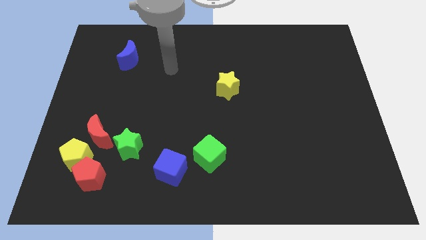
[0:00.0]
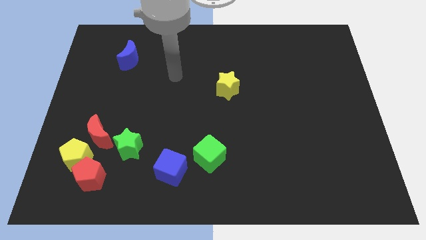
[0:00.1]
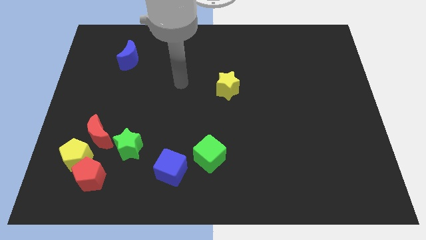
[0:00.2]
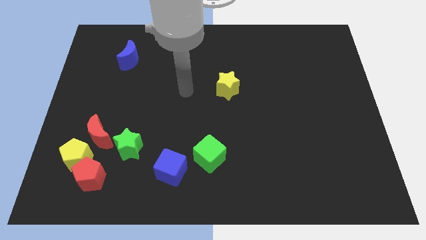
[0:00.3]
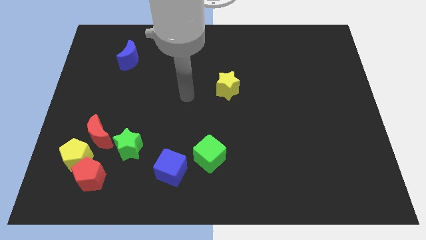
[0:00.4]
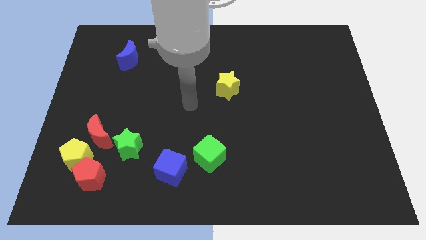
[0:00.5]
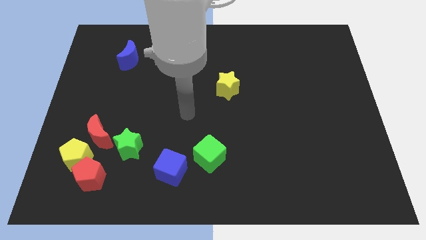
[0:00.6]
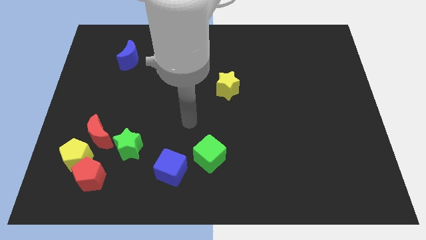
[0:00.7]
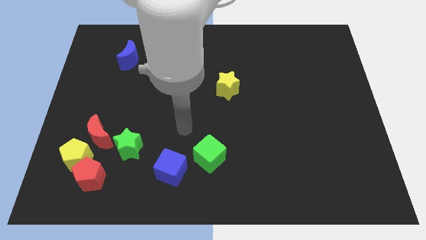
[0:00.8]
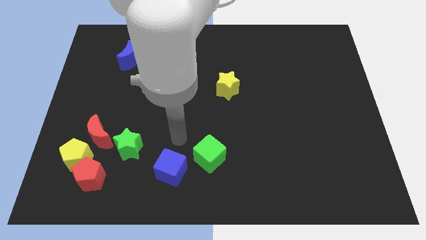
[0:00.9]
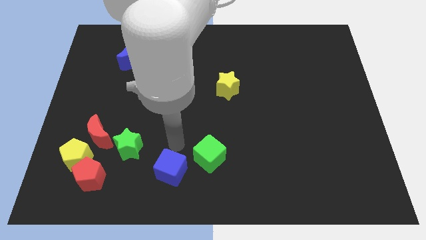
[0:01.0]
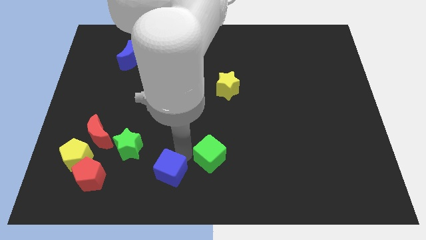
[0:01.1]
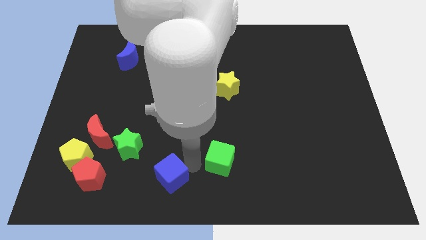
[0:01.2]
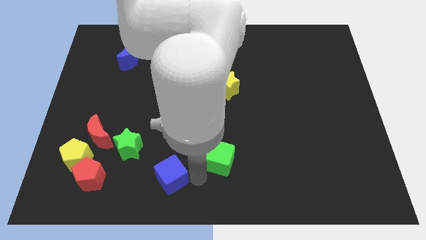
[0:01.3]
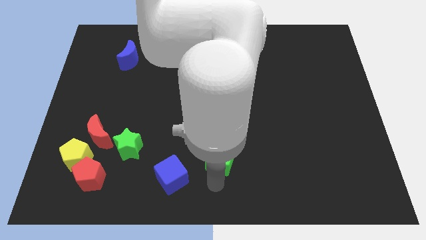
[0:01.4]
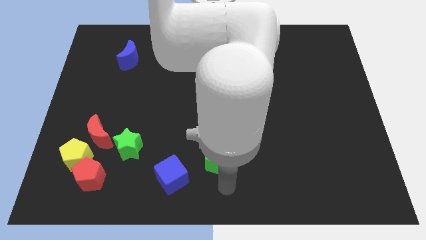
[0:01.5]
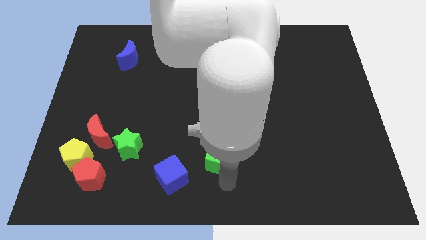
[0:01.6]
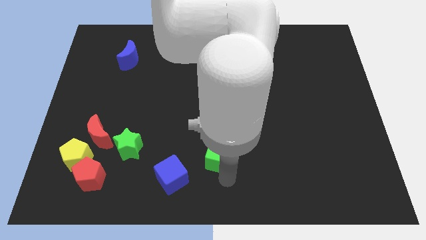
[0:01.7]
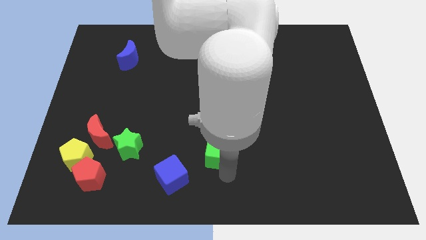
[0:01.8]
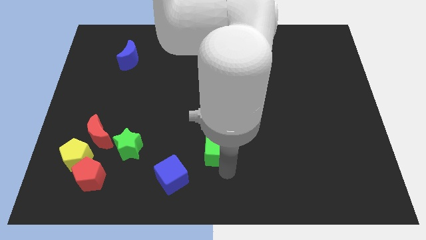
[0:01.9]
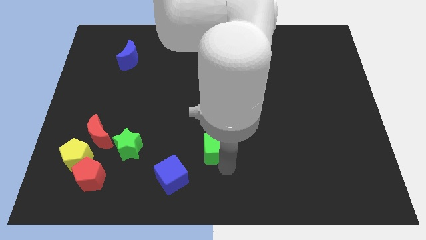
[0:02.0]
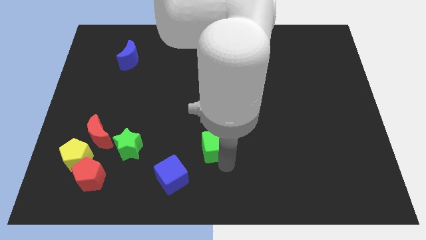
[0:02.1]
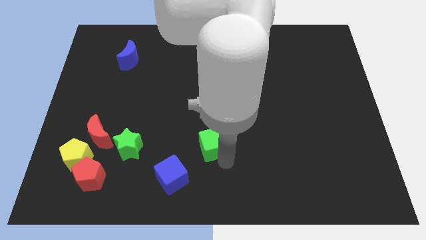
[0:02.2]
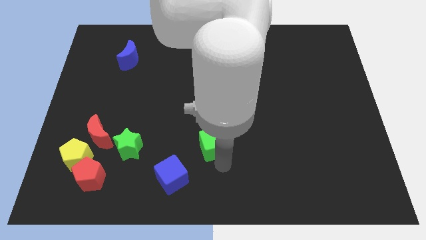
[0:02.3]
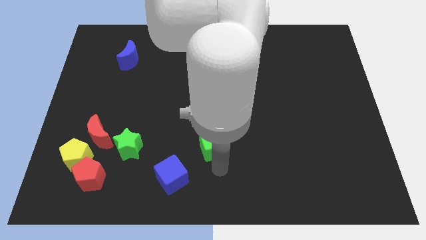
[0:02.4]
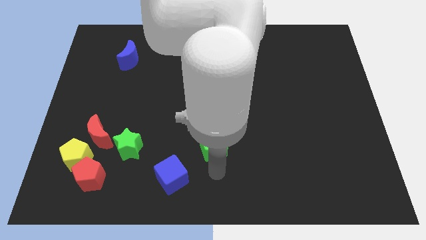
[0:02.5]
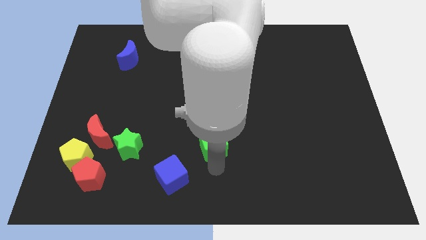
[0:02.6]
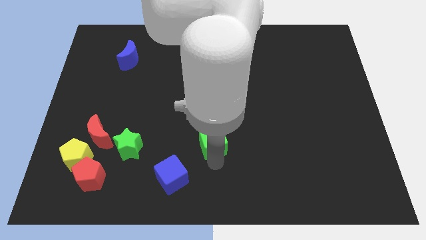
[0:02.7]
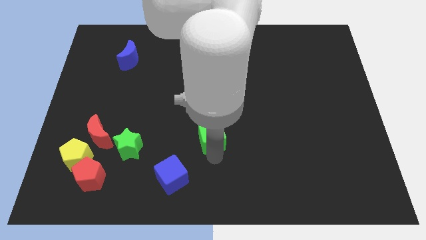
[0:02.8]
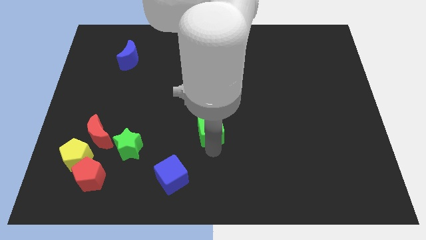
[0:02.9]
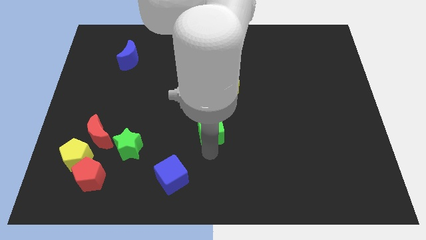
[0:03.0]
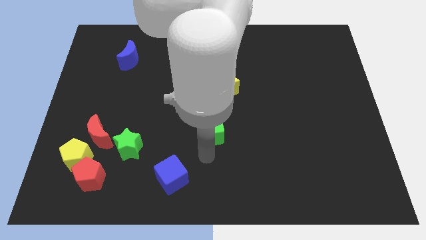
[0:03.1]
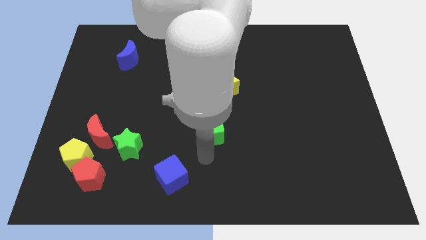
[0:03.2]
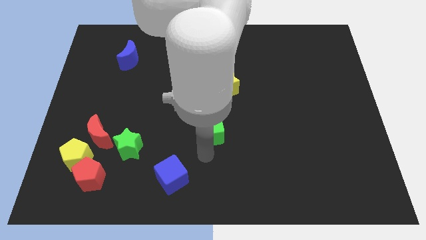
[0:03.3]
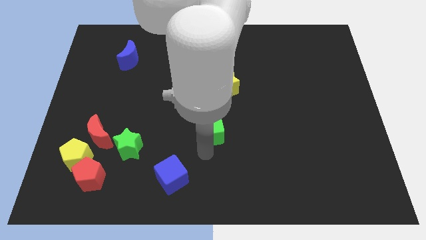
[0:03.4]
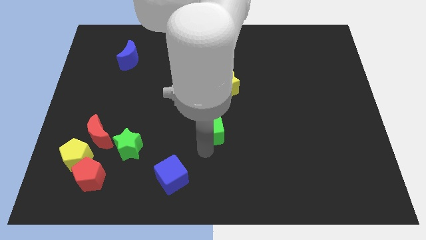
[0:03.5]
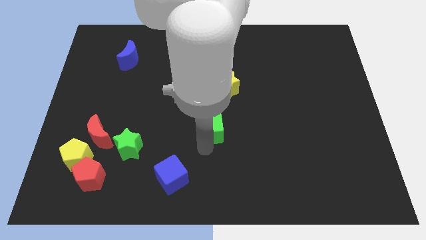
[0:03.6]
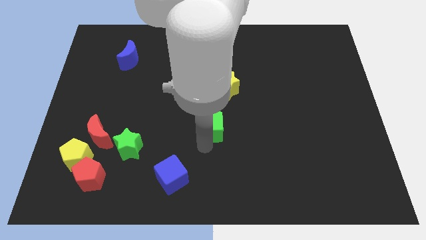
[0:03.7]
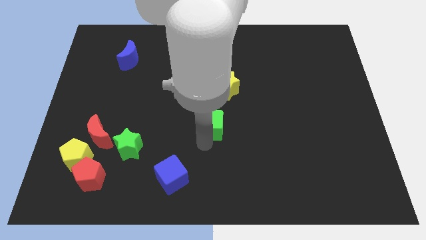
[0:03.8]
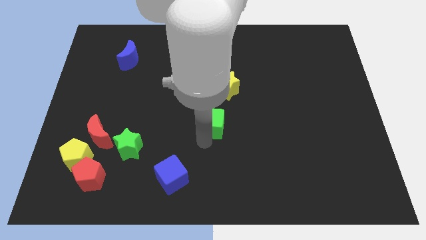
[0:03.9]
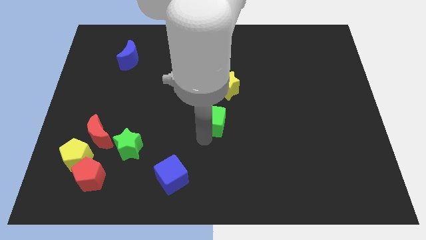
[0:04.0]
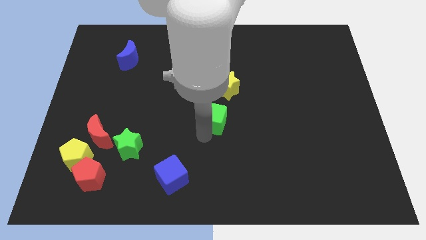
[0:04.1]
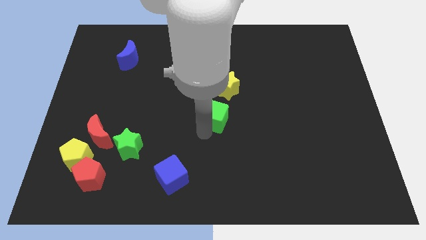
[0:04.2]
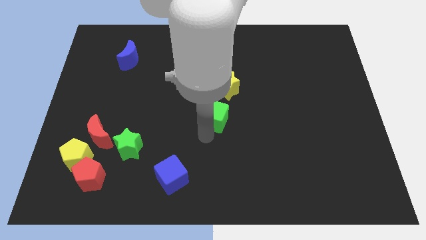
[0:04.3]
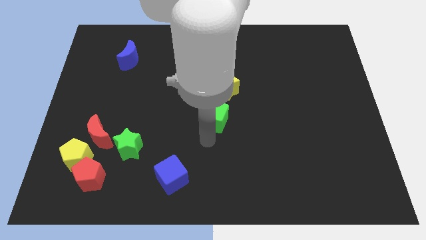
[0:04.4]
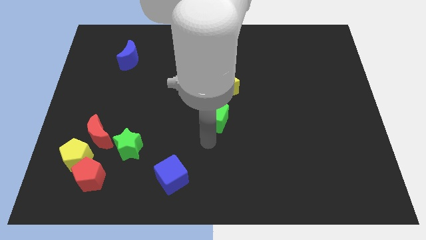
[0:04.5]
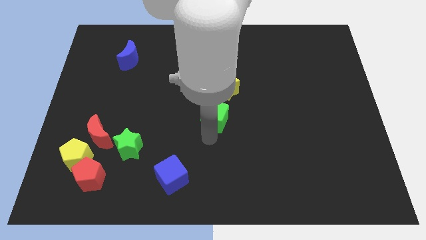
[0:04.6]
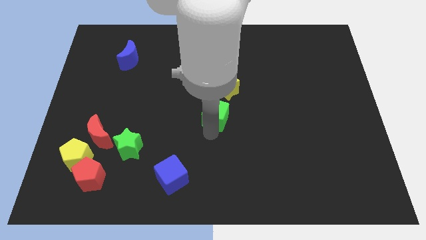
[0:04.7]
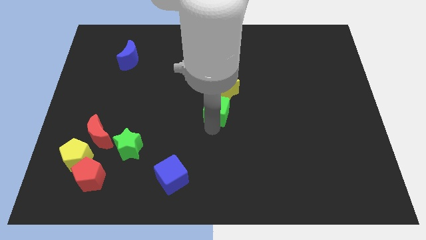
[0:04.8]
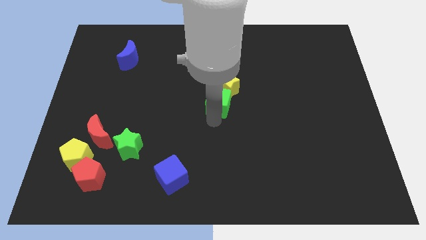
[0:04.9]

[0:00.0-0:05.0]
put the green cube next to the yellow star

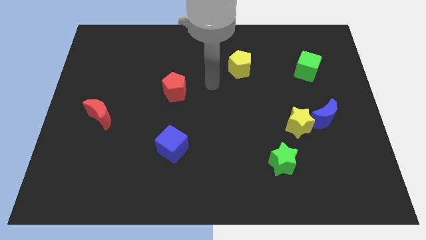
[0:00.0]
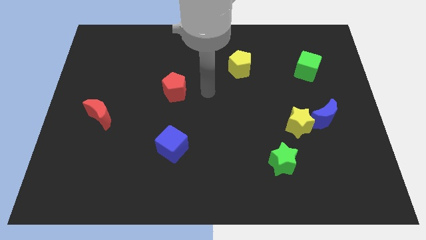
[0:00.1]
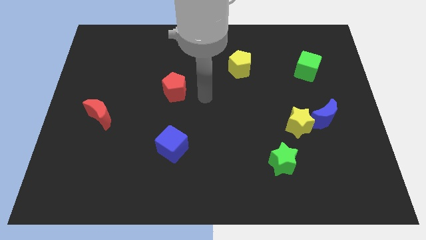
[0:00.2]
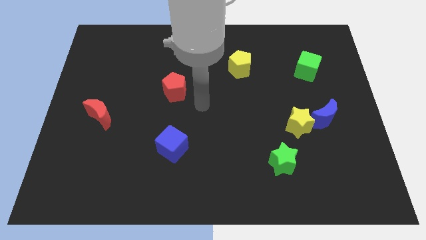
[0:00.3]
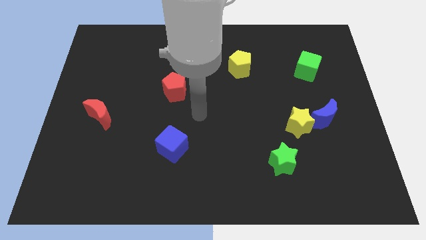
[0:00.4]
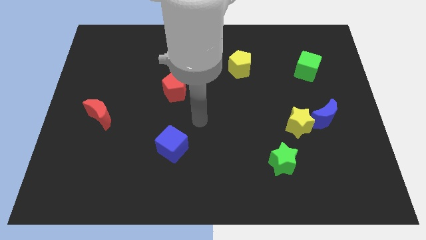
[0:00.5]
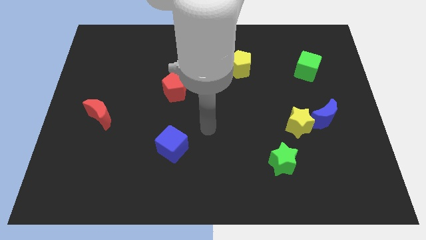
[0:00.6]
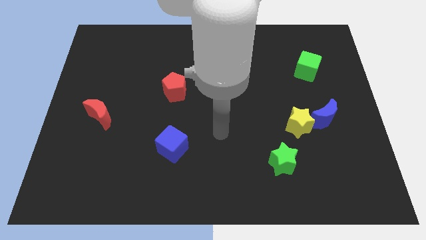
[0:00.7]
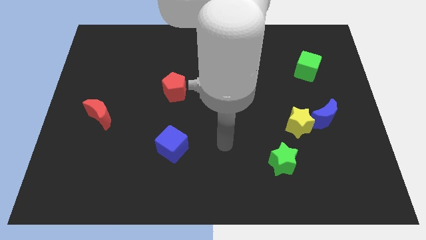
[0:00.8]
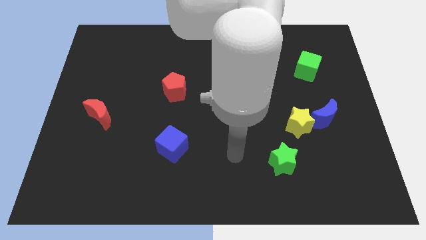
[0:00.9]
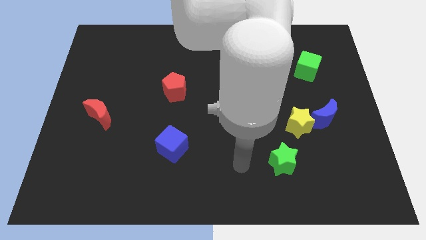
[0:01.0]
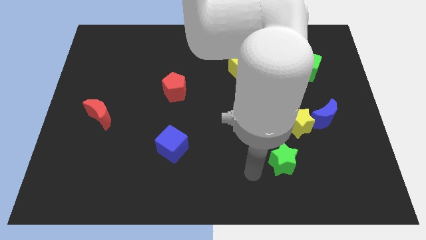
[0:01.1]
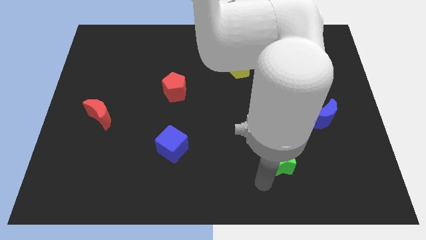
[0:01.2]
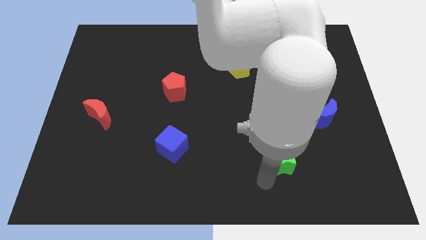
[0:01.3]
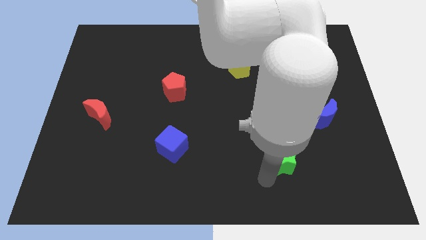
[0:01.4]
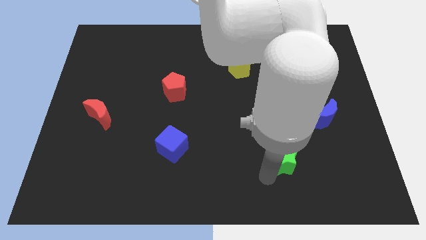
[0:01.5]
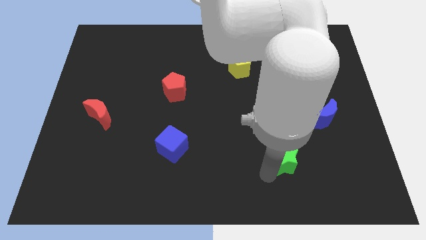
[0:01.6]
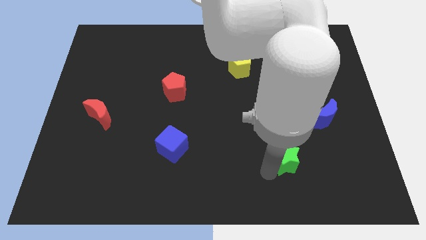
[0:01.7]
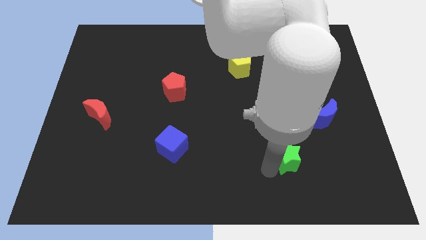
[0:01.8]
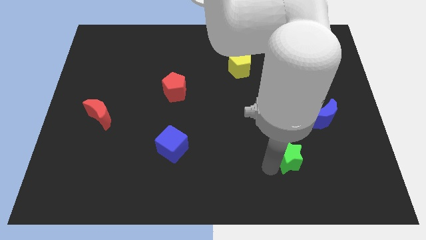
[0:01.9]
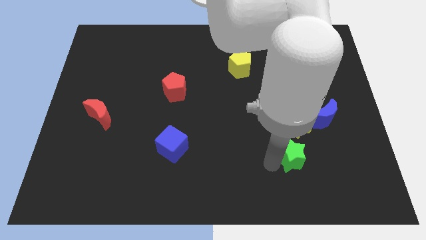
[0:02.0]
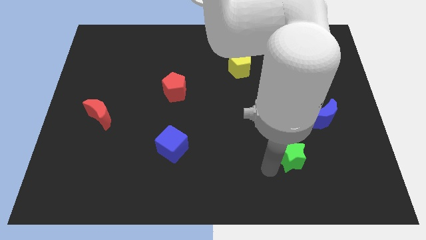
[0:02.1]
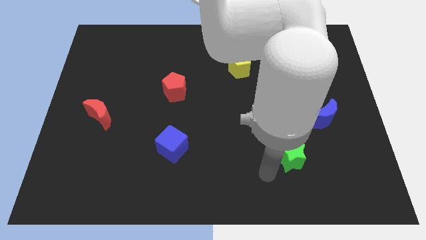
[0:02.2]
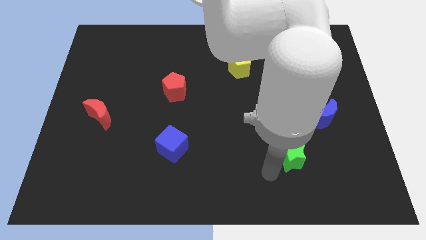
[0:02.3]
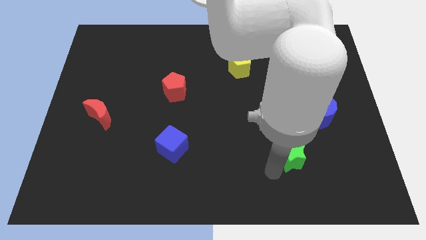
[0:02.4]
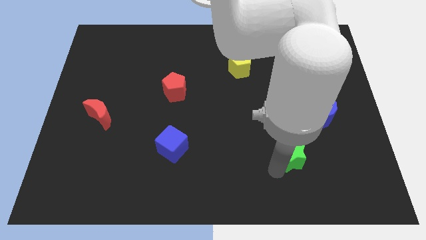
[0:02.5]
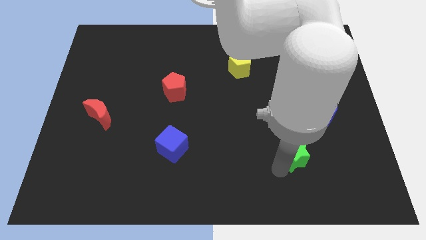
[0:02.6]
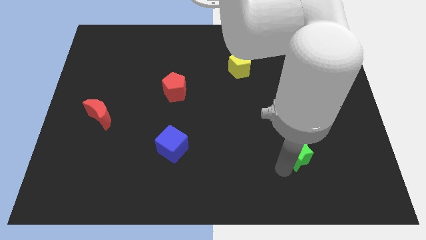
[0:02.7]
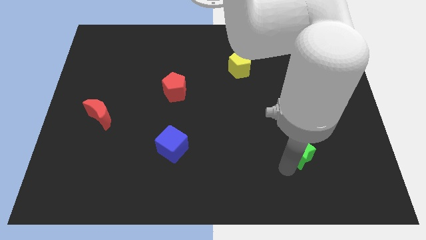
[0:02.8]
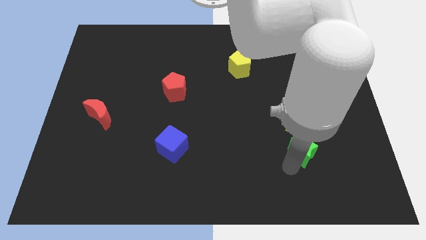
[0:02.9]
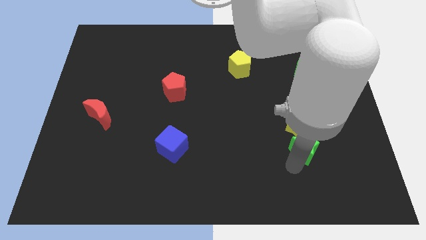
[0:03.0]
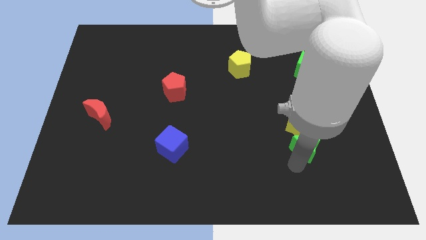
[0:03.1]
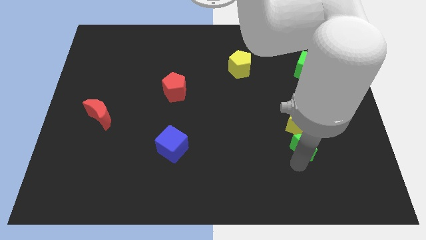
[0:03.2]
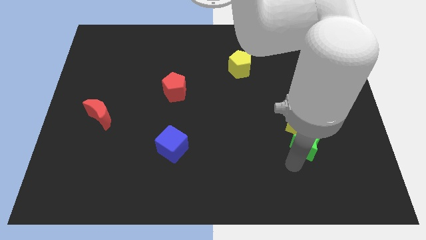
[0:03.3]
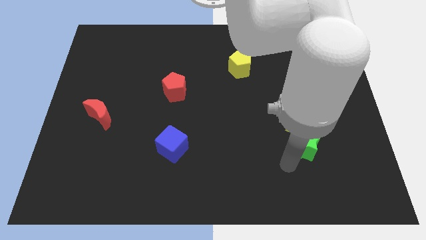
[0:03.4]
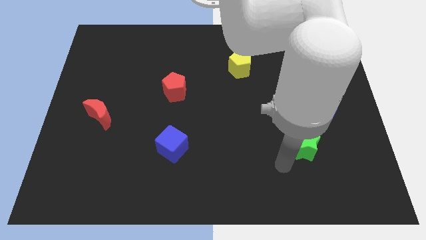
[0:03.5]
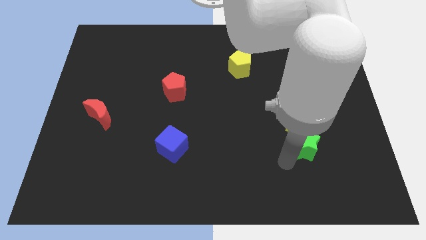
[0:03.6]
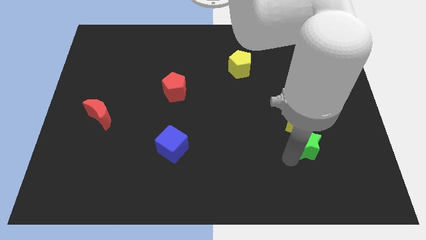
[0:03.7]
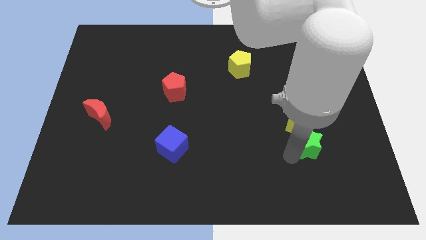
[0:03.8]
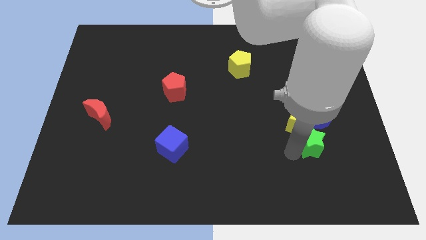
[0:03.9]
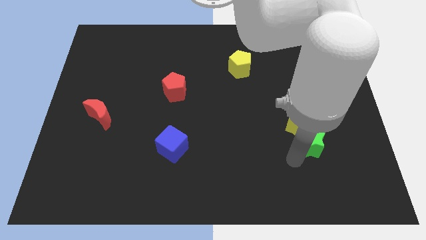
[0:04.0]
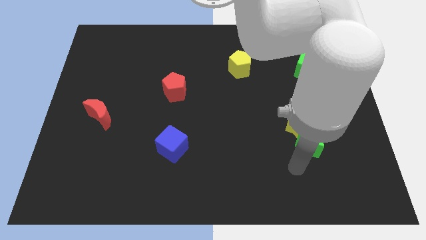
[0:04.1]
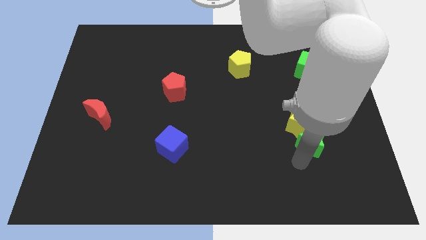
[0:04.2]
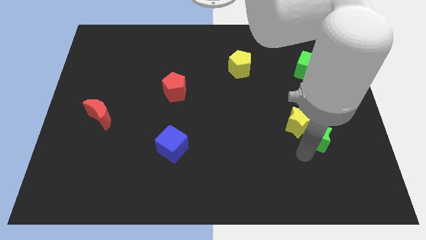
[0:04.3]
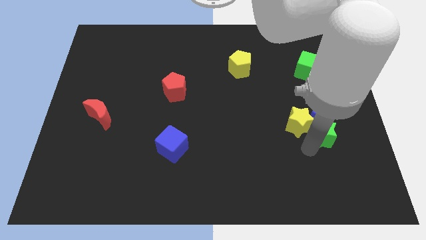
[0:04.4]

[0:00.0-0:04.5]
slide the green star next to the blue moon
